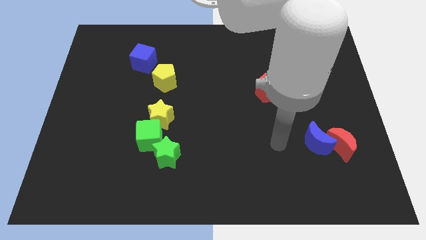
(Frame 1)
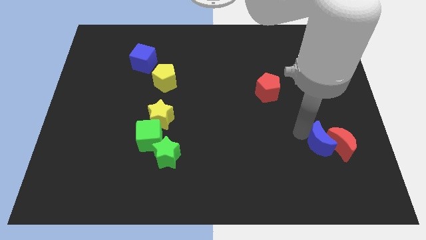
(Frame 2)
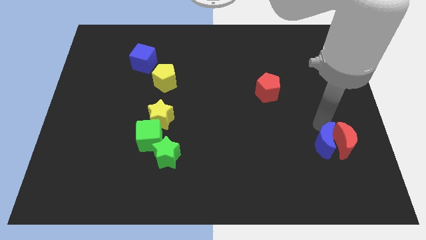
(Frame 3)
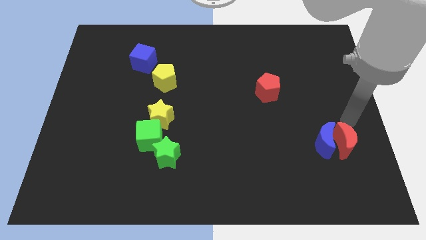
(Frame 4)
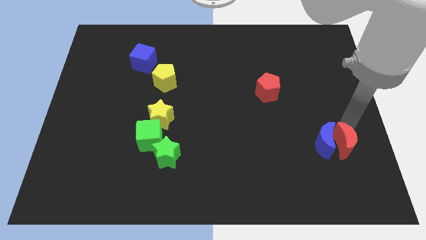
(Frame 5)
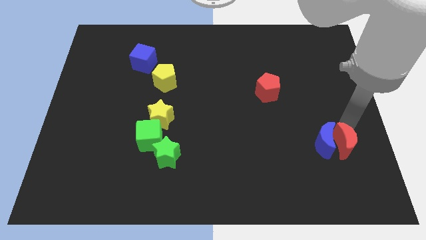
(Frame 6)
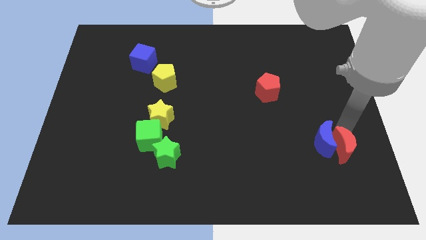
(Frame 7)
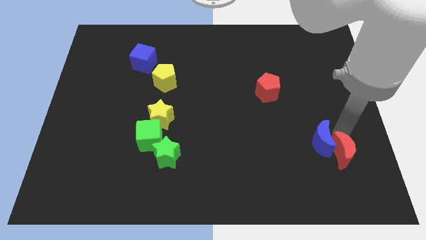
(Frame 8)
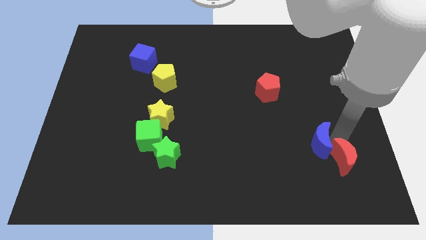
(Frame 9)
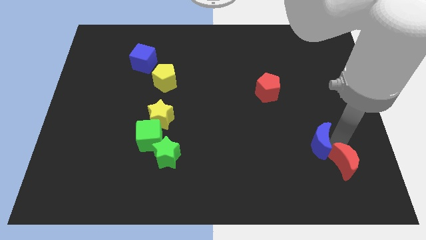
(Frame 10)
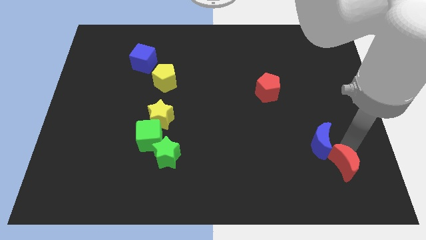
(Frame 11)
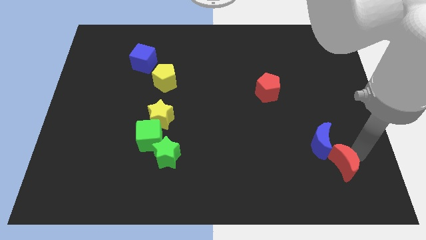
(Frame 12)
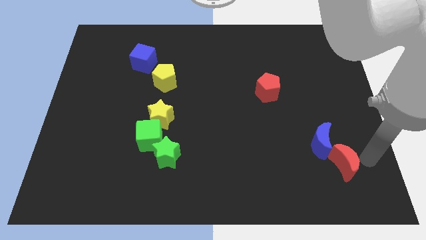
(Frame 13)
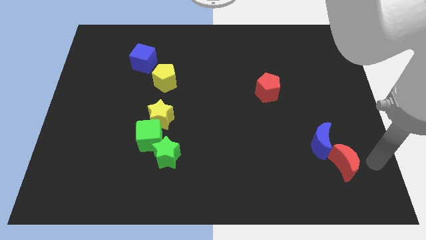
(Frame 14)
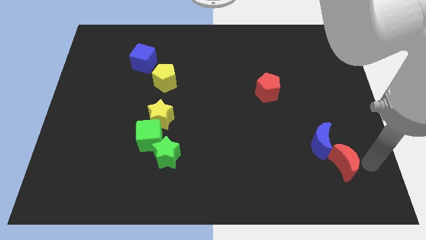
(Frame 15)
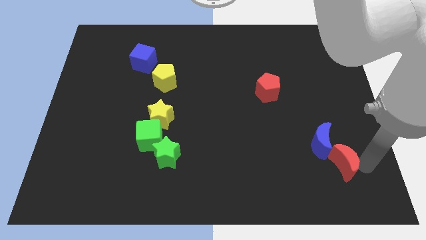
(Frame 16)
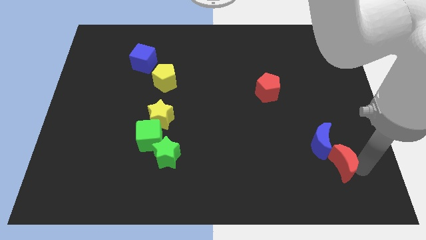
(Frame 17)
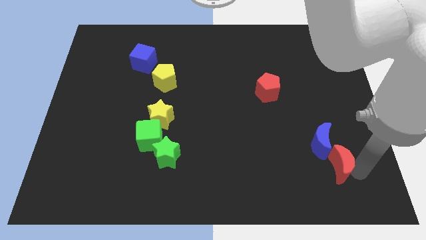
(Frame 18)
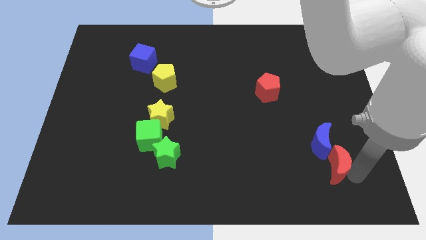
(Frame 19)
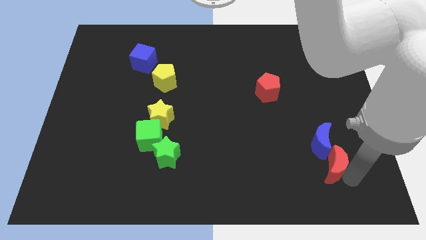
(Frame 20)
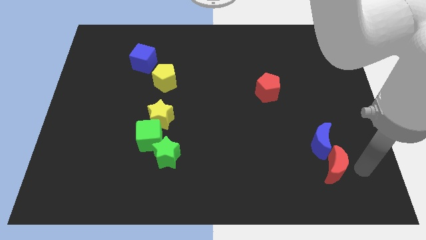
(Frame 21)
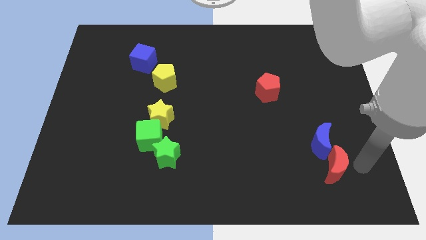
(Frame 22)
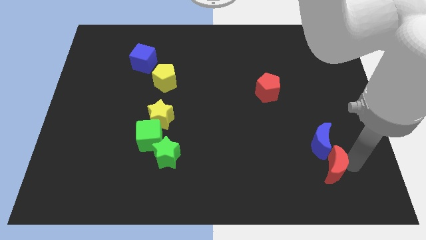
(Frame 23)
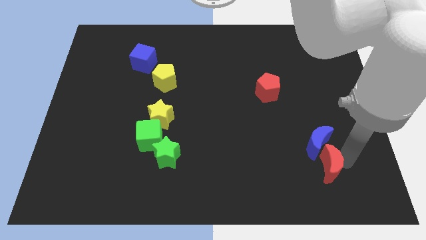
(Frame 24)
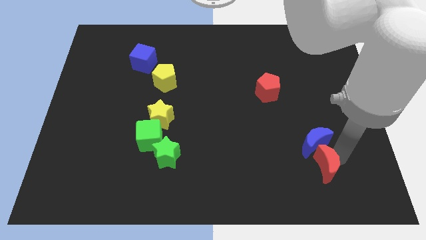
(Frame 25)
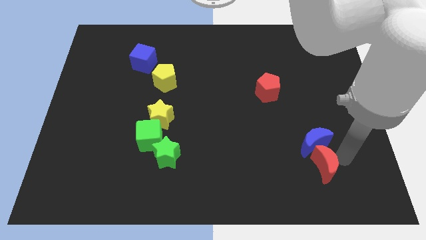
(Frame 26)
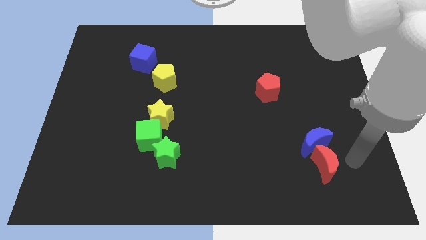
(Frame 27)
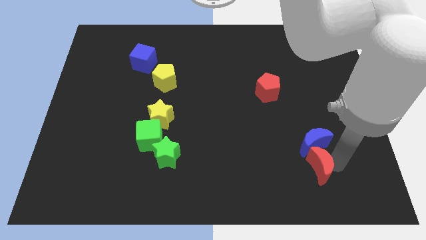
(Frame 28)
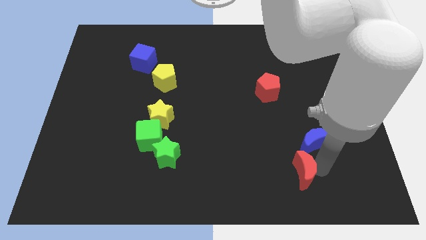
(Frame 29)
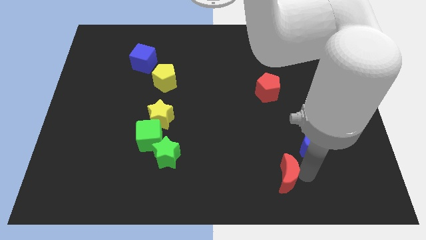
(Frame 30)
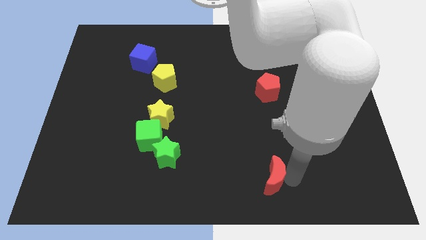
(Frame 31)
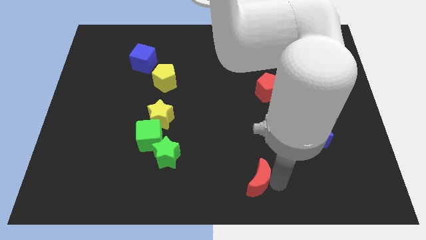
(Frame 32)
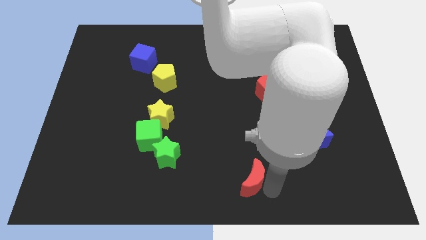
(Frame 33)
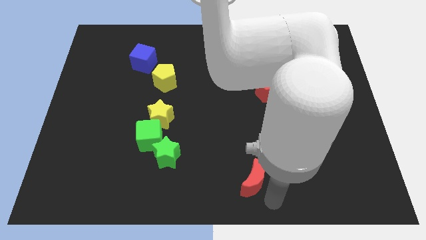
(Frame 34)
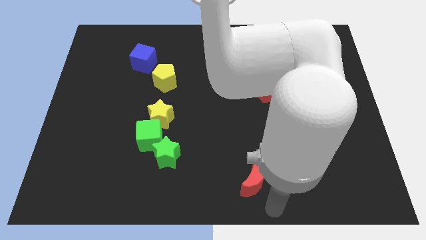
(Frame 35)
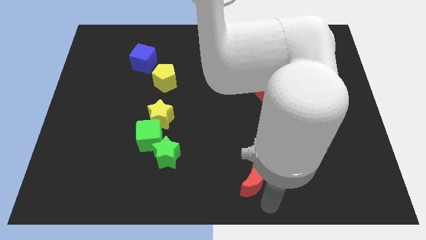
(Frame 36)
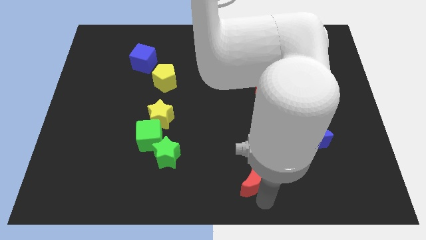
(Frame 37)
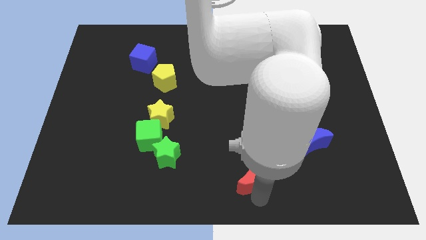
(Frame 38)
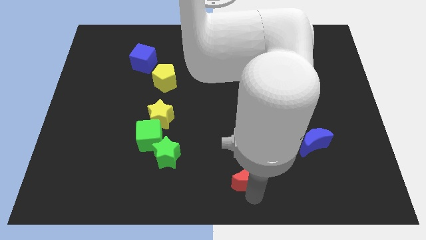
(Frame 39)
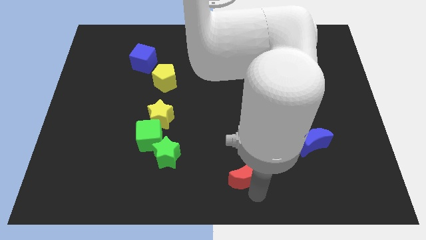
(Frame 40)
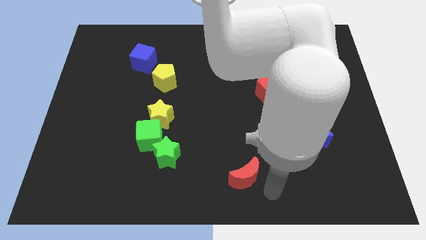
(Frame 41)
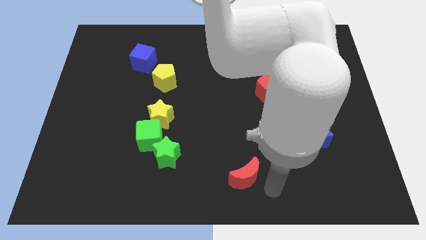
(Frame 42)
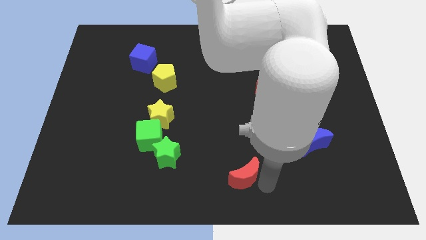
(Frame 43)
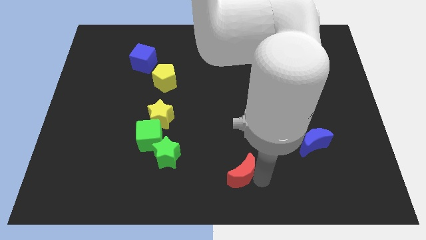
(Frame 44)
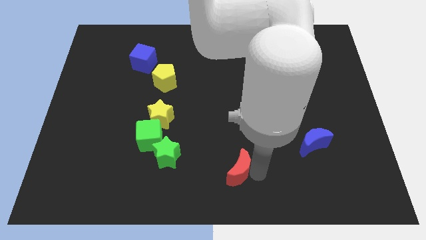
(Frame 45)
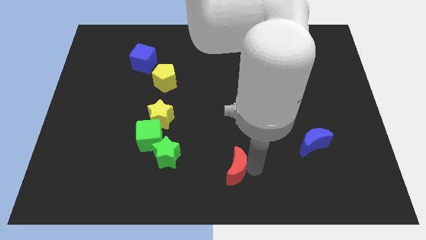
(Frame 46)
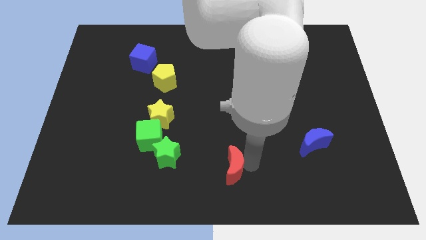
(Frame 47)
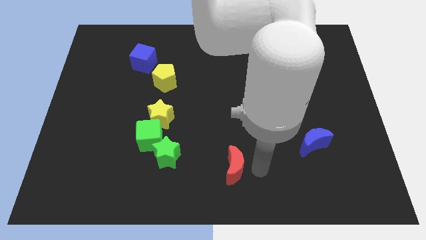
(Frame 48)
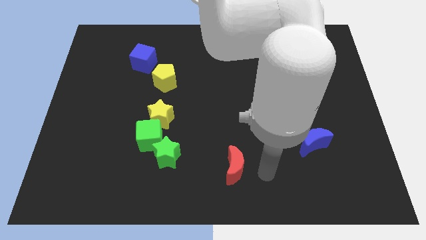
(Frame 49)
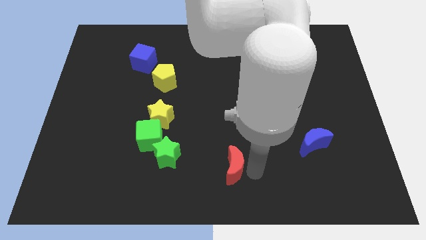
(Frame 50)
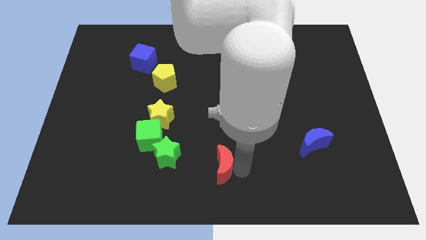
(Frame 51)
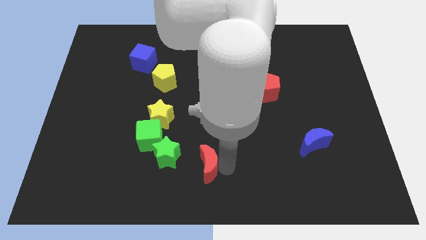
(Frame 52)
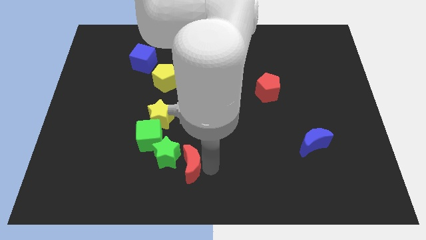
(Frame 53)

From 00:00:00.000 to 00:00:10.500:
push the red moon next to the green star

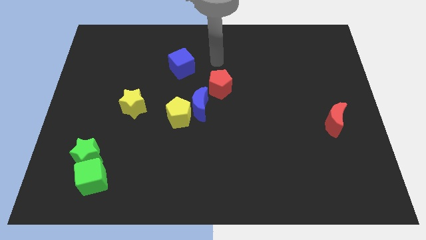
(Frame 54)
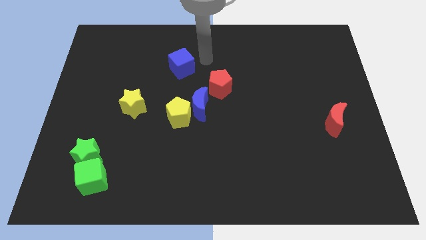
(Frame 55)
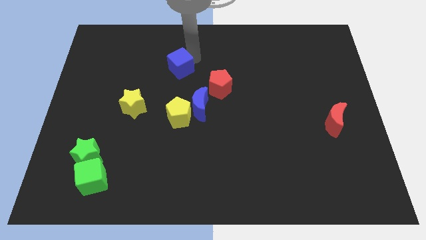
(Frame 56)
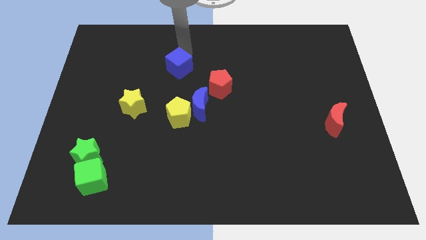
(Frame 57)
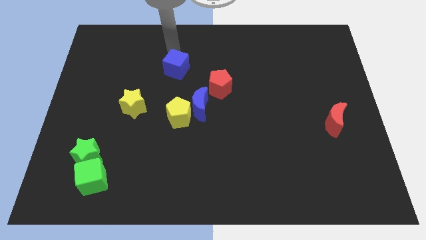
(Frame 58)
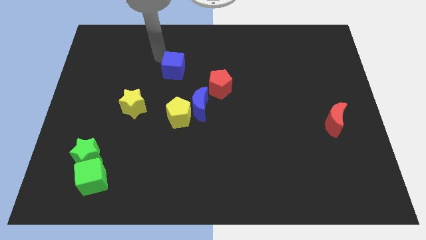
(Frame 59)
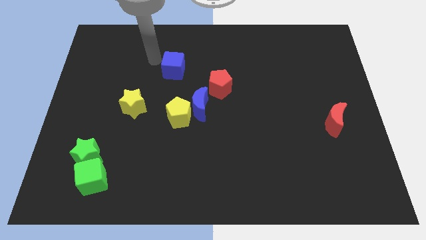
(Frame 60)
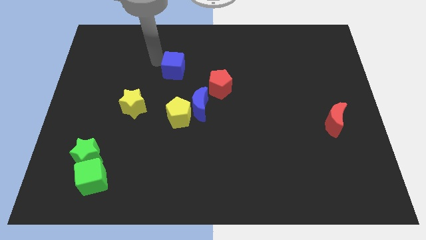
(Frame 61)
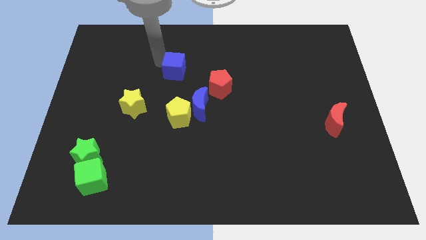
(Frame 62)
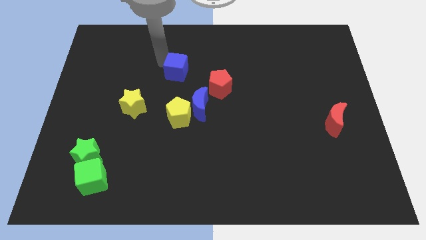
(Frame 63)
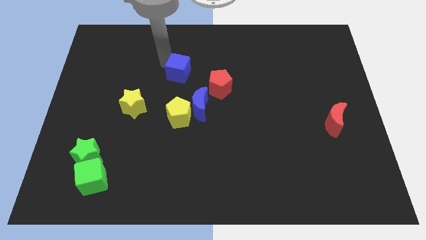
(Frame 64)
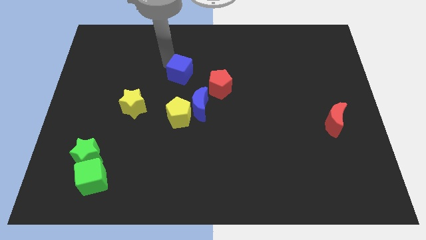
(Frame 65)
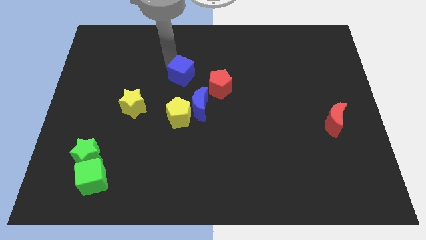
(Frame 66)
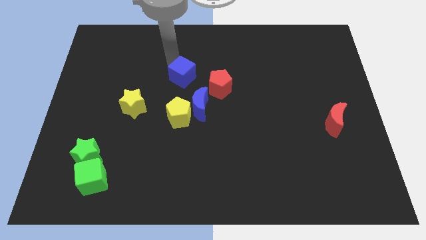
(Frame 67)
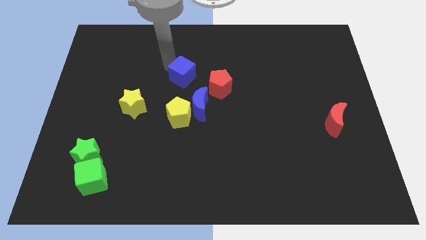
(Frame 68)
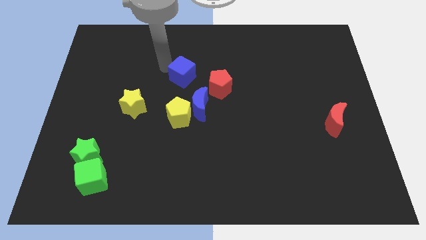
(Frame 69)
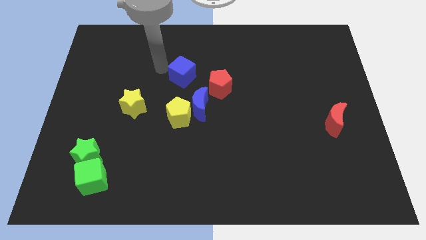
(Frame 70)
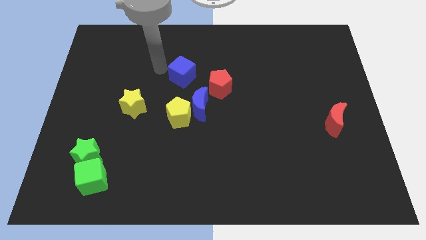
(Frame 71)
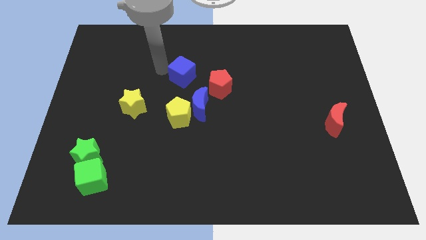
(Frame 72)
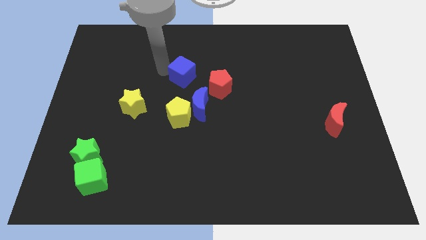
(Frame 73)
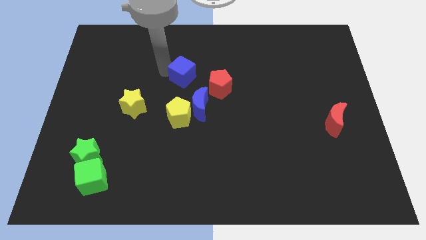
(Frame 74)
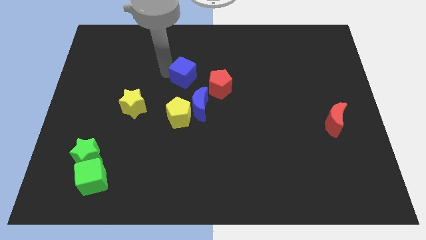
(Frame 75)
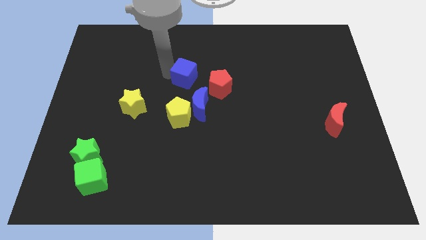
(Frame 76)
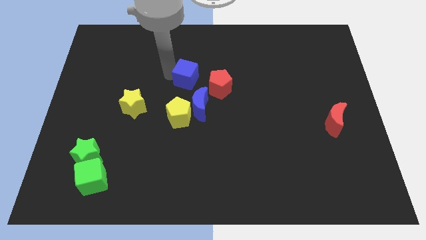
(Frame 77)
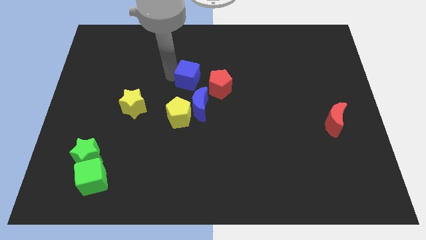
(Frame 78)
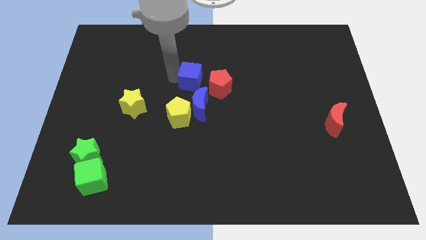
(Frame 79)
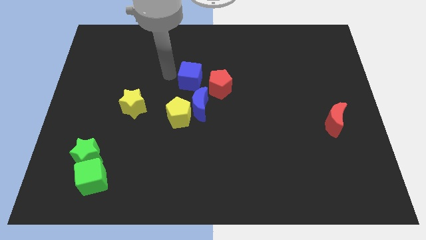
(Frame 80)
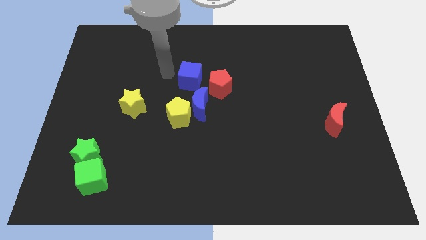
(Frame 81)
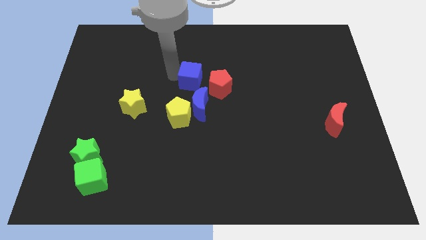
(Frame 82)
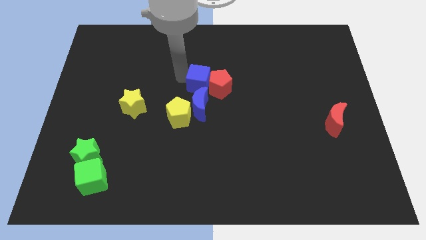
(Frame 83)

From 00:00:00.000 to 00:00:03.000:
put the blue cube next to the red pentagon
